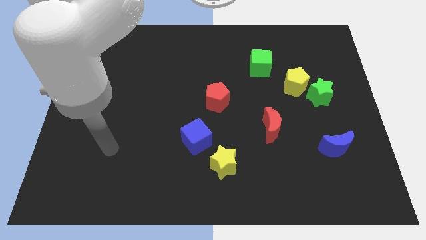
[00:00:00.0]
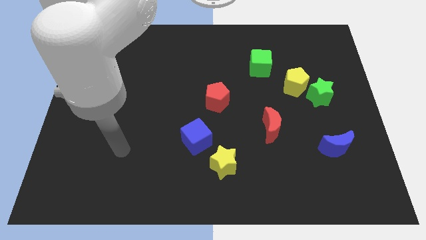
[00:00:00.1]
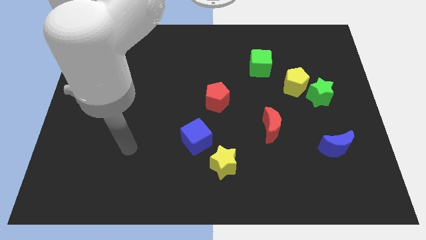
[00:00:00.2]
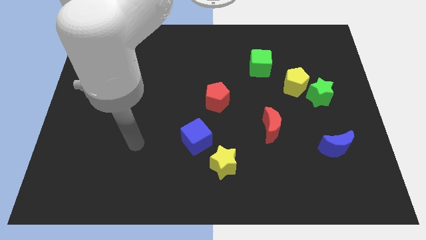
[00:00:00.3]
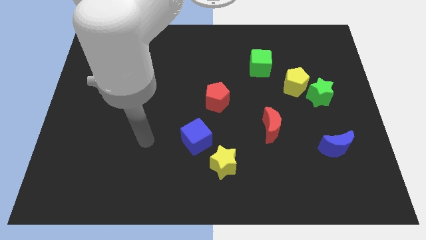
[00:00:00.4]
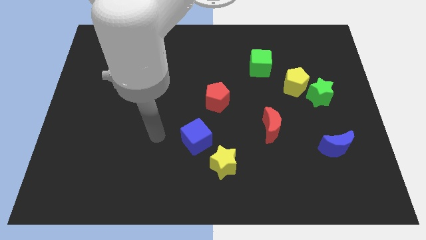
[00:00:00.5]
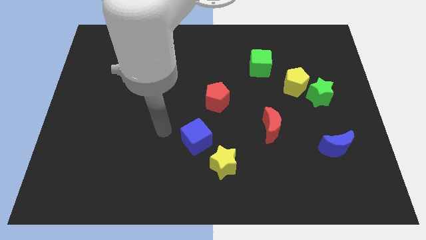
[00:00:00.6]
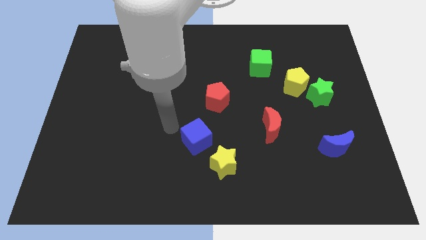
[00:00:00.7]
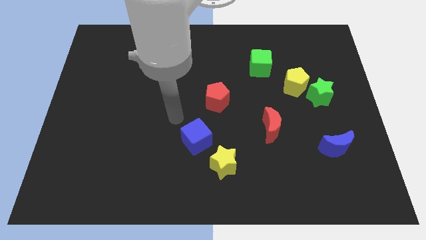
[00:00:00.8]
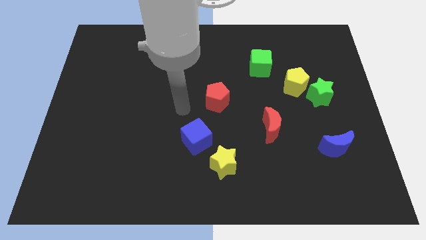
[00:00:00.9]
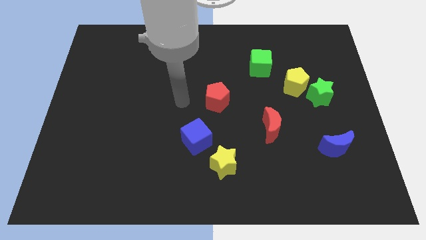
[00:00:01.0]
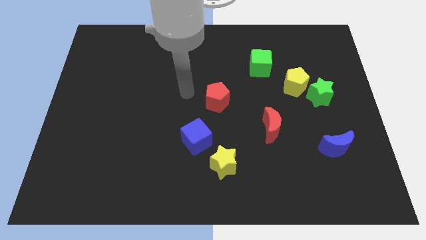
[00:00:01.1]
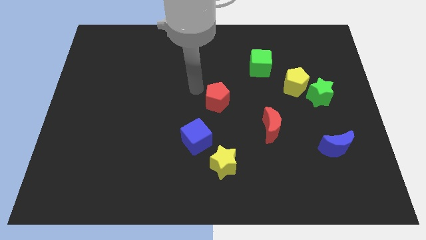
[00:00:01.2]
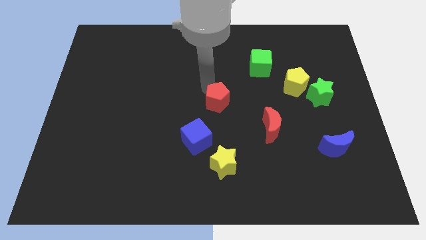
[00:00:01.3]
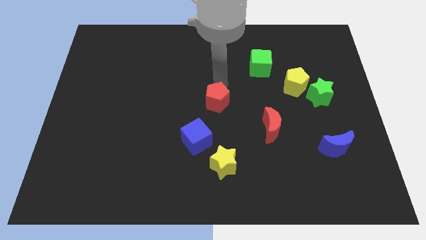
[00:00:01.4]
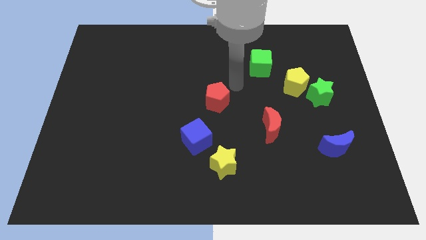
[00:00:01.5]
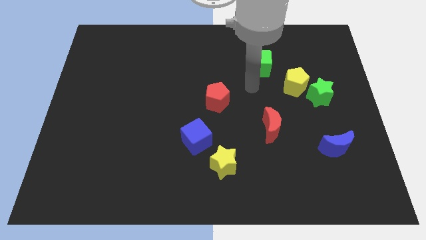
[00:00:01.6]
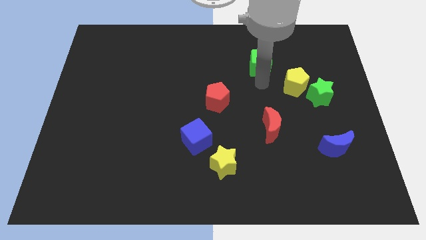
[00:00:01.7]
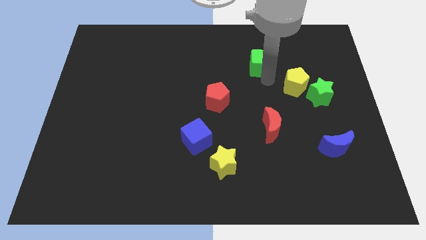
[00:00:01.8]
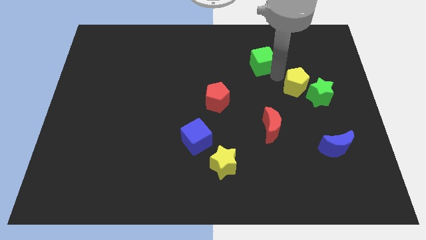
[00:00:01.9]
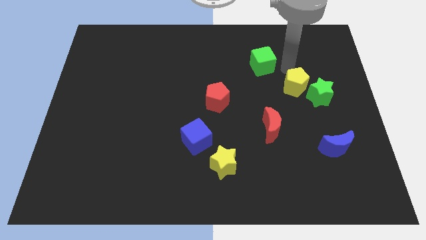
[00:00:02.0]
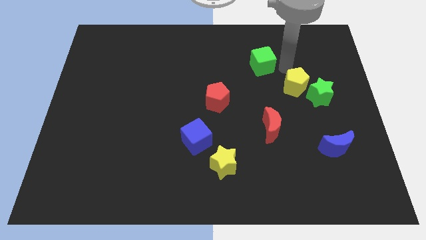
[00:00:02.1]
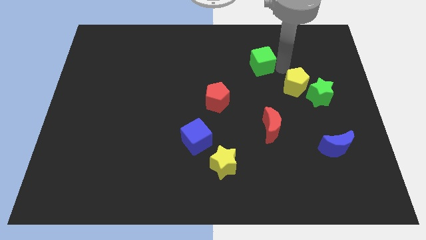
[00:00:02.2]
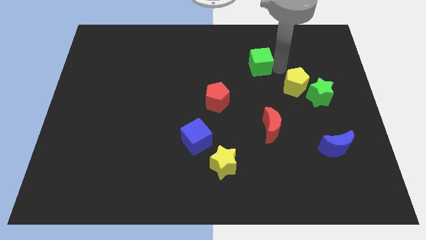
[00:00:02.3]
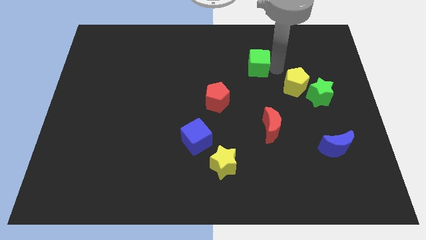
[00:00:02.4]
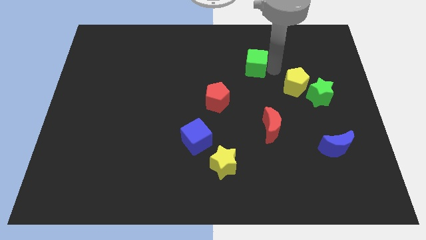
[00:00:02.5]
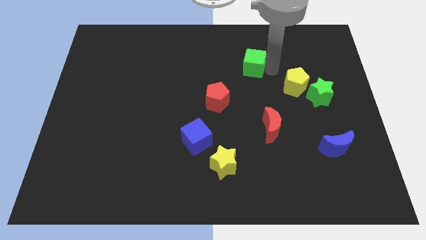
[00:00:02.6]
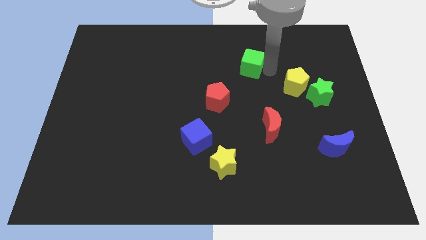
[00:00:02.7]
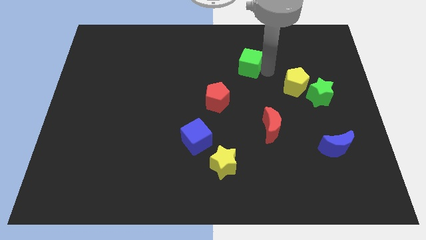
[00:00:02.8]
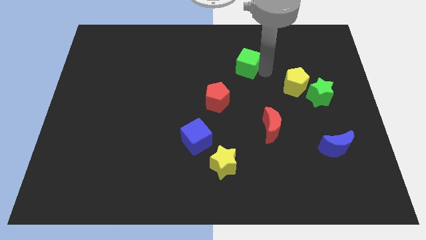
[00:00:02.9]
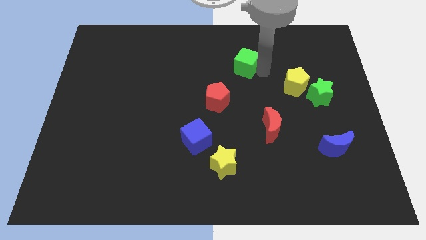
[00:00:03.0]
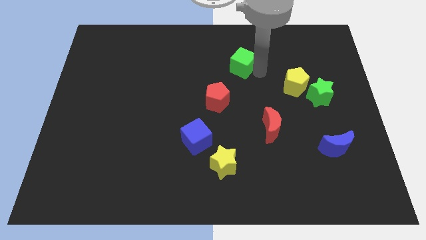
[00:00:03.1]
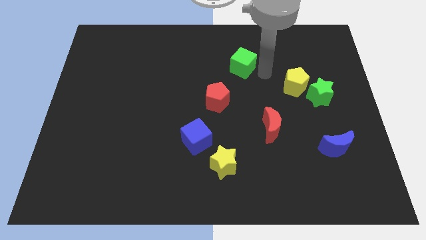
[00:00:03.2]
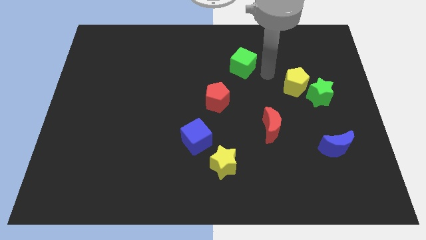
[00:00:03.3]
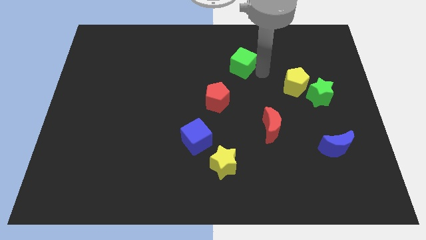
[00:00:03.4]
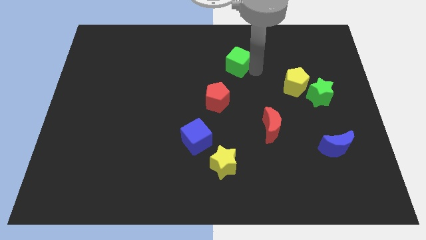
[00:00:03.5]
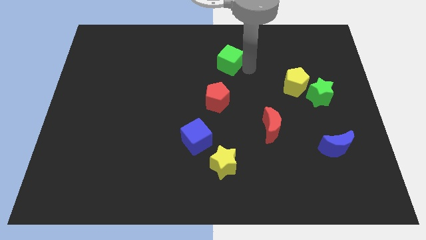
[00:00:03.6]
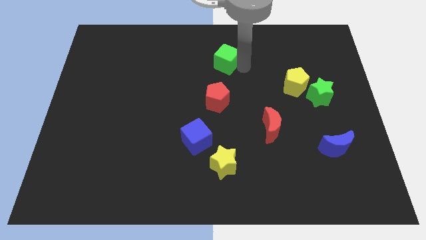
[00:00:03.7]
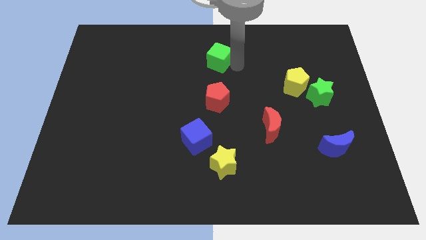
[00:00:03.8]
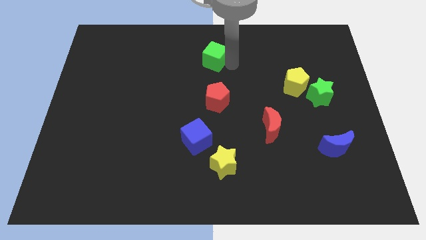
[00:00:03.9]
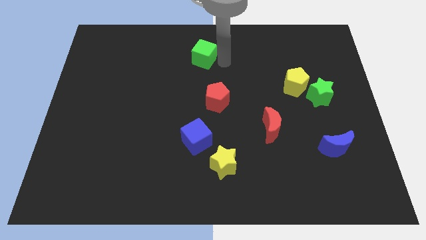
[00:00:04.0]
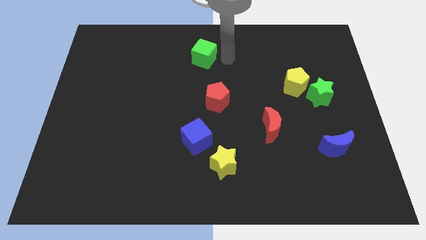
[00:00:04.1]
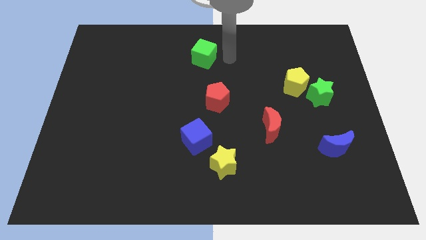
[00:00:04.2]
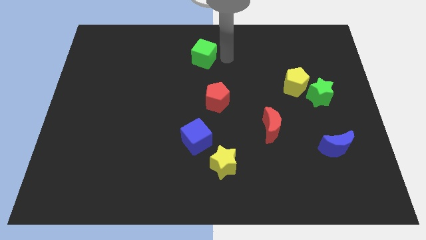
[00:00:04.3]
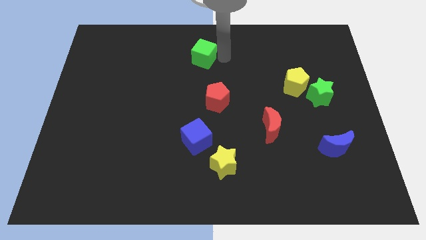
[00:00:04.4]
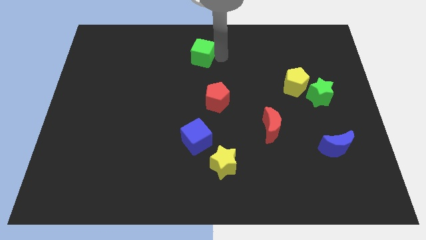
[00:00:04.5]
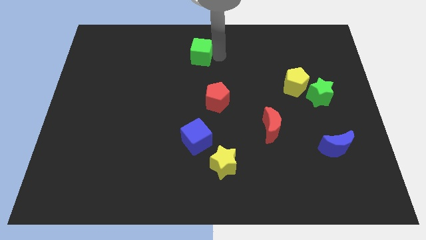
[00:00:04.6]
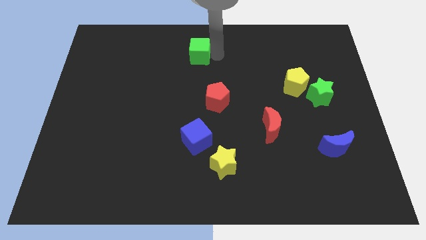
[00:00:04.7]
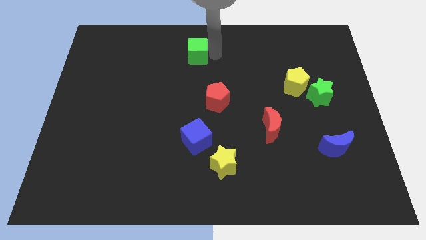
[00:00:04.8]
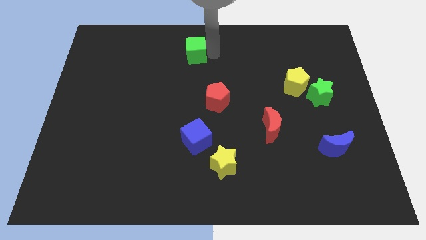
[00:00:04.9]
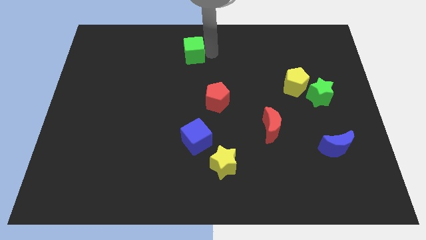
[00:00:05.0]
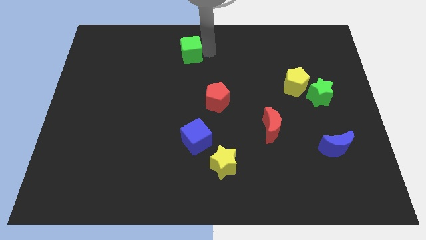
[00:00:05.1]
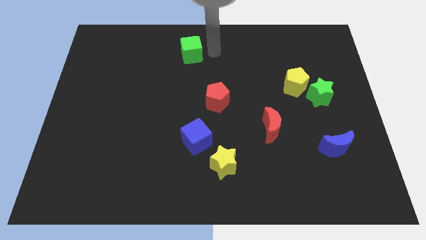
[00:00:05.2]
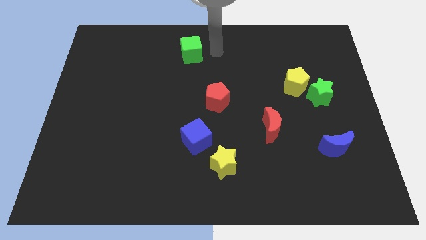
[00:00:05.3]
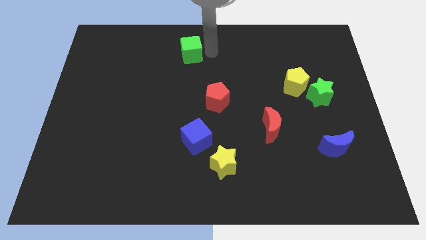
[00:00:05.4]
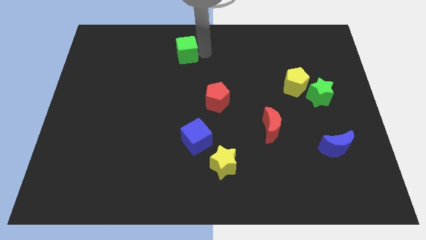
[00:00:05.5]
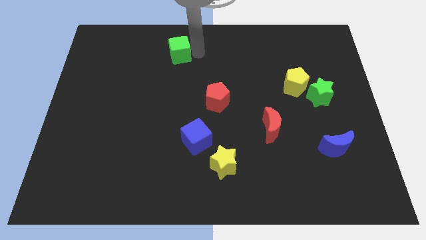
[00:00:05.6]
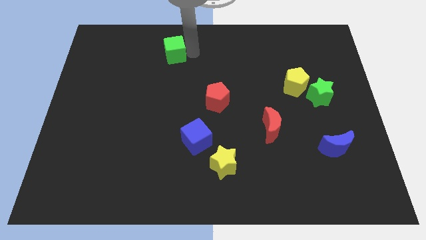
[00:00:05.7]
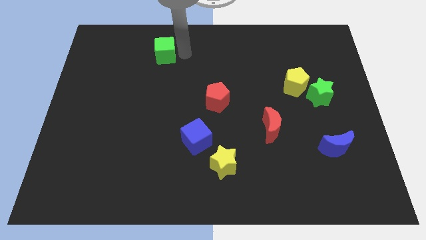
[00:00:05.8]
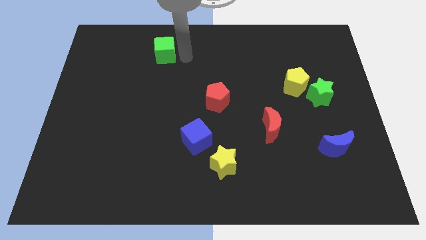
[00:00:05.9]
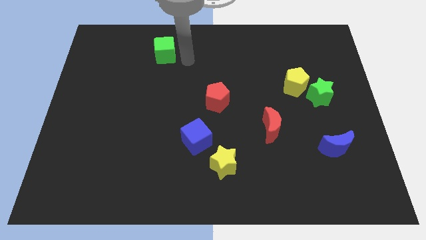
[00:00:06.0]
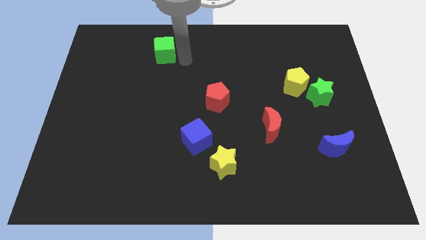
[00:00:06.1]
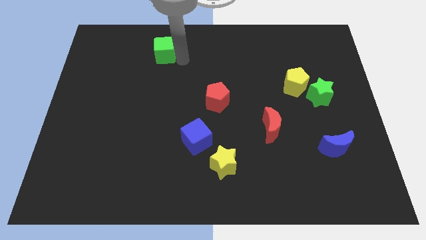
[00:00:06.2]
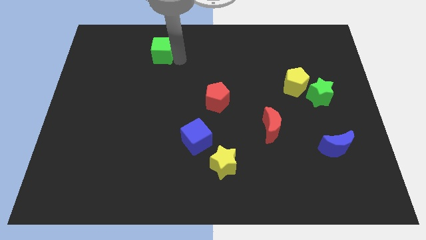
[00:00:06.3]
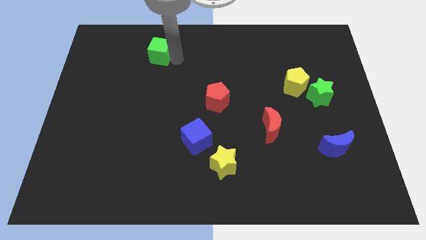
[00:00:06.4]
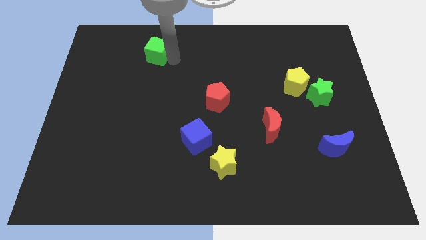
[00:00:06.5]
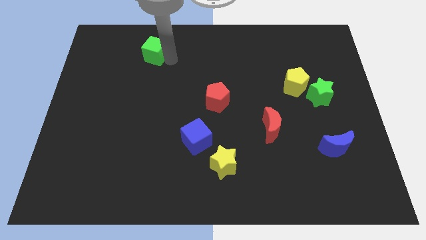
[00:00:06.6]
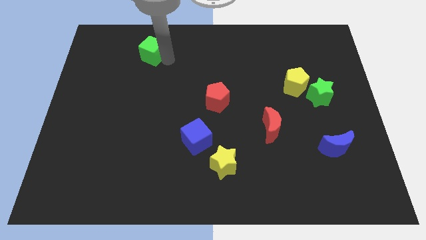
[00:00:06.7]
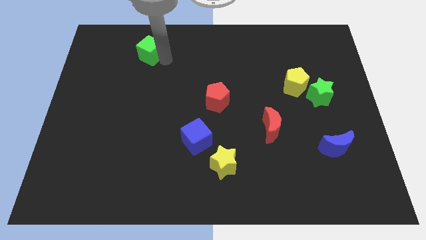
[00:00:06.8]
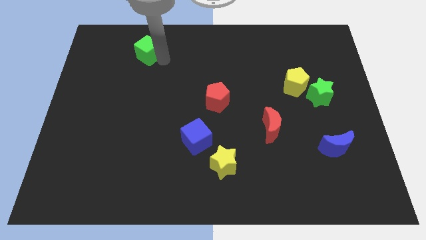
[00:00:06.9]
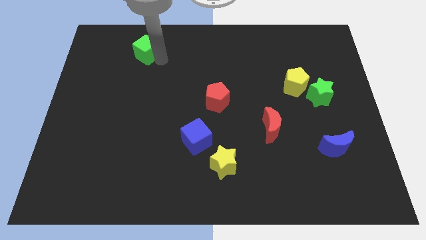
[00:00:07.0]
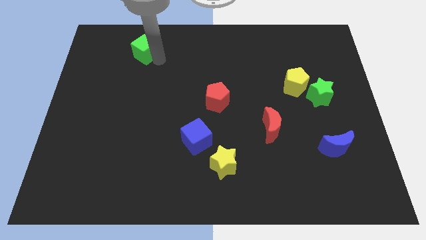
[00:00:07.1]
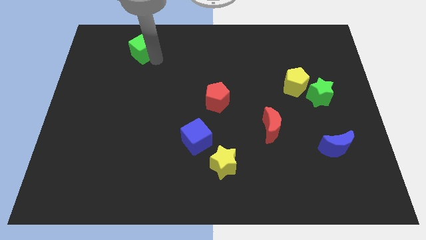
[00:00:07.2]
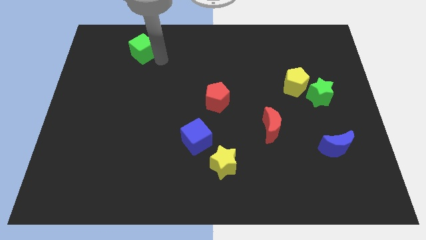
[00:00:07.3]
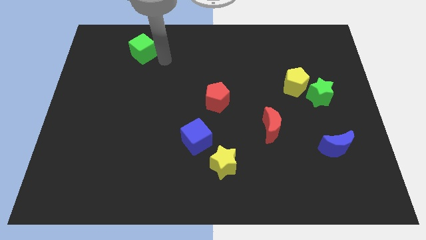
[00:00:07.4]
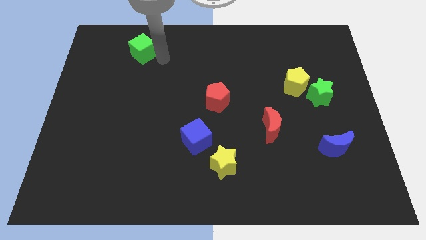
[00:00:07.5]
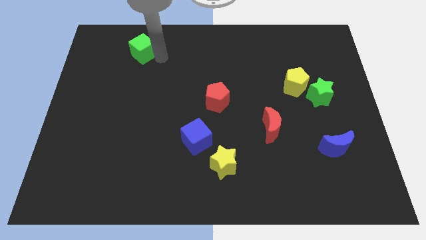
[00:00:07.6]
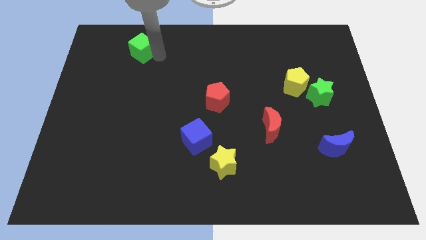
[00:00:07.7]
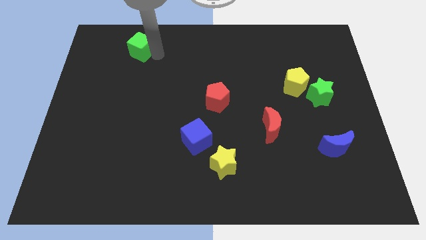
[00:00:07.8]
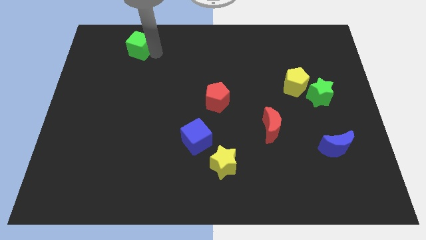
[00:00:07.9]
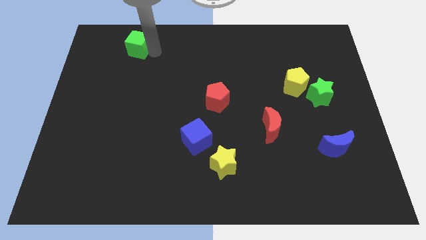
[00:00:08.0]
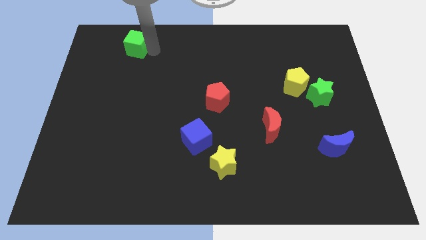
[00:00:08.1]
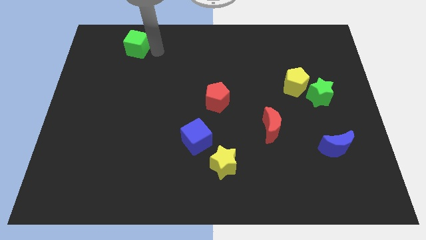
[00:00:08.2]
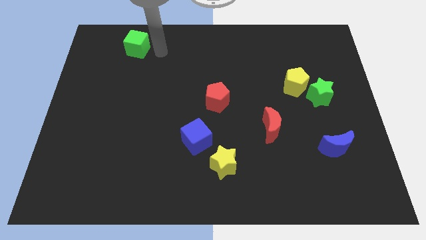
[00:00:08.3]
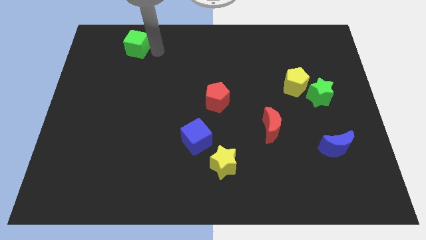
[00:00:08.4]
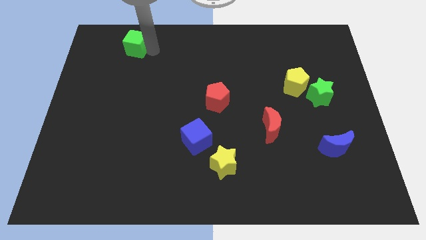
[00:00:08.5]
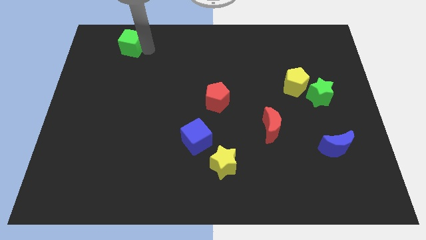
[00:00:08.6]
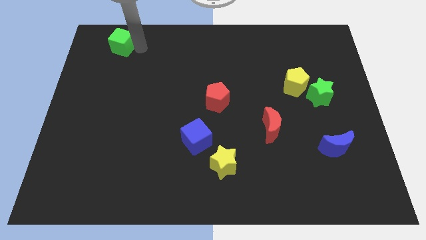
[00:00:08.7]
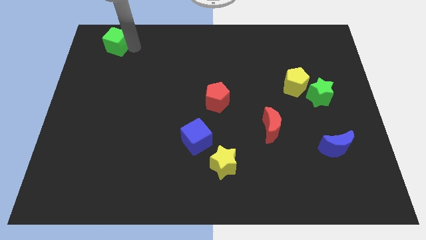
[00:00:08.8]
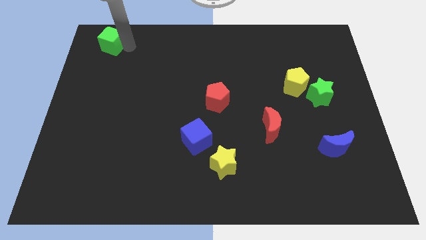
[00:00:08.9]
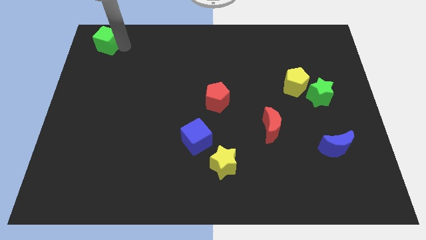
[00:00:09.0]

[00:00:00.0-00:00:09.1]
push the green cube to the top left
